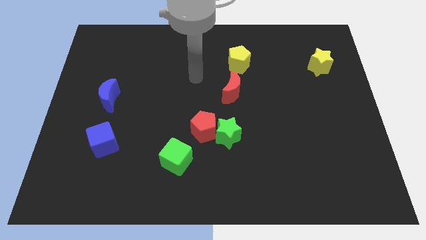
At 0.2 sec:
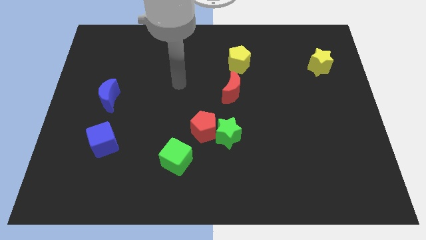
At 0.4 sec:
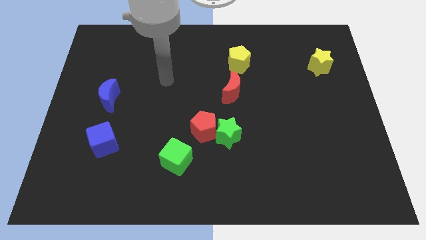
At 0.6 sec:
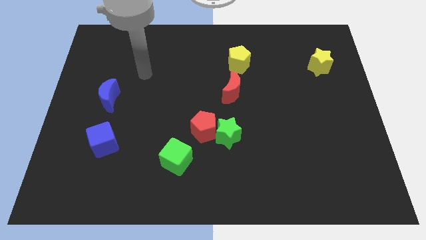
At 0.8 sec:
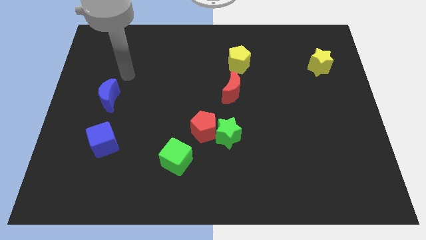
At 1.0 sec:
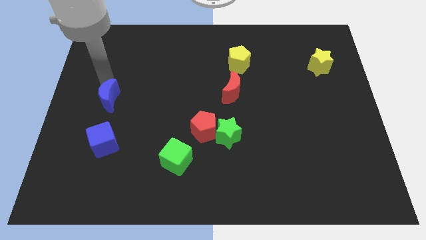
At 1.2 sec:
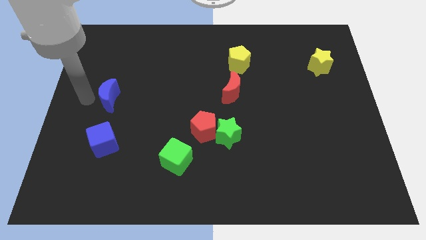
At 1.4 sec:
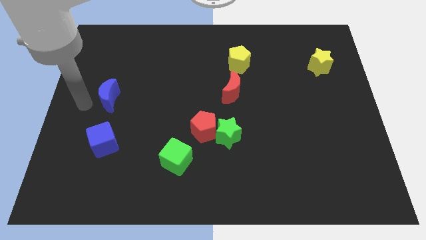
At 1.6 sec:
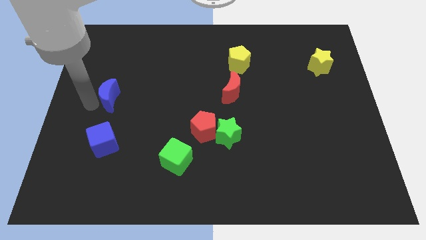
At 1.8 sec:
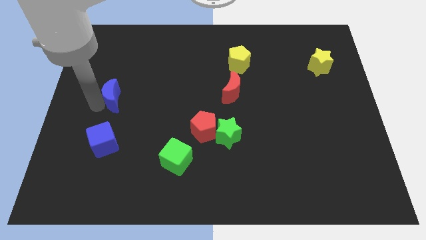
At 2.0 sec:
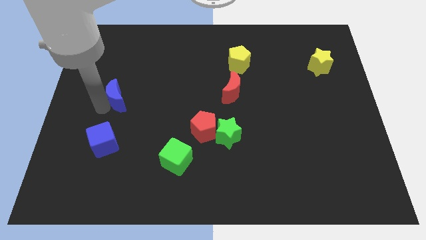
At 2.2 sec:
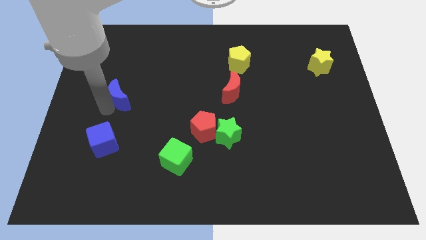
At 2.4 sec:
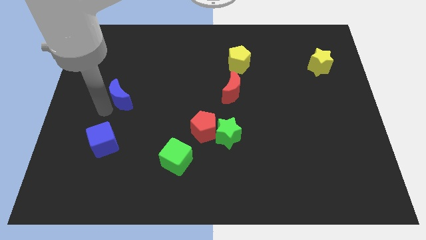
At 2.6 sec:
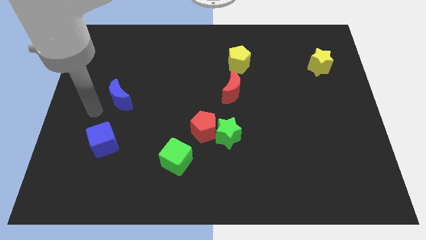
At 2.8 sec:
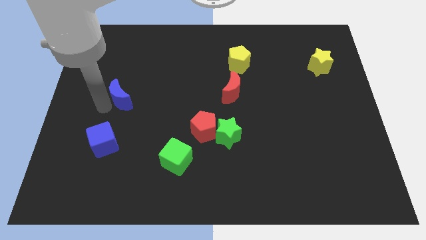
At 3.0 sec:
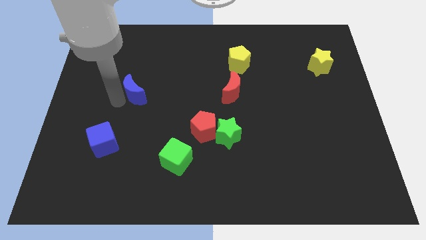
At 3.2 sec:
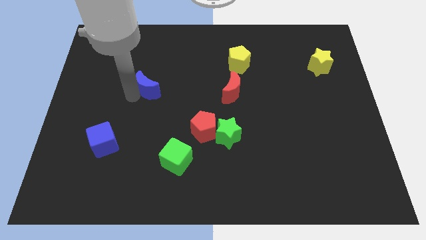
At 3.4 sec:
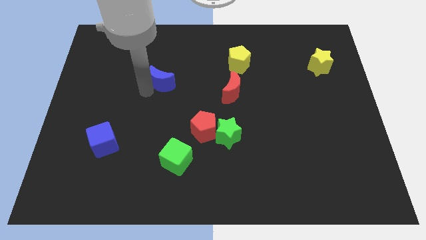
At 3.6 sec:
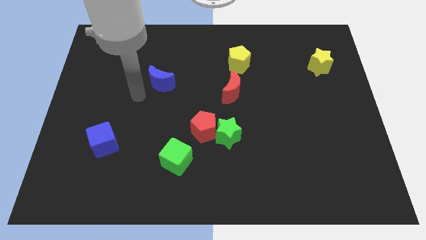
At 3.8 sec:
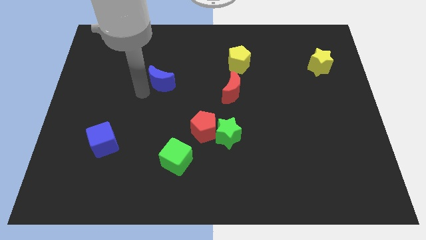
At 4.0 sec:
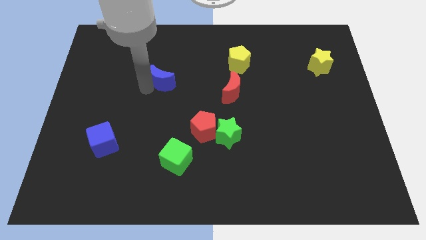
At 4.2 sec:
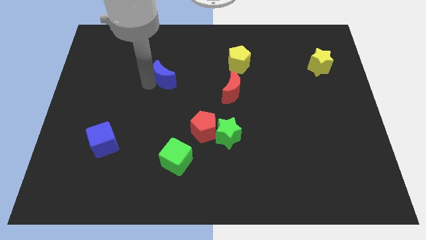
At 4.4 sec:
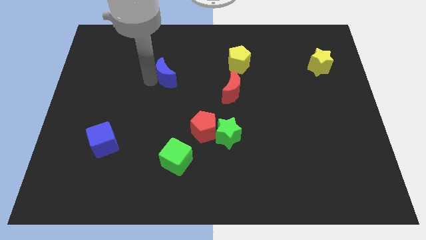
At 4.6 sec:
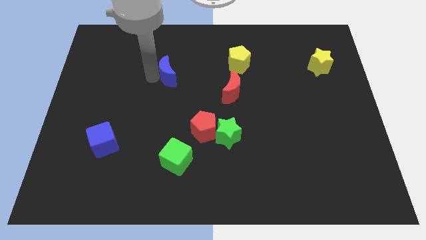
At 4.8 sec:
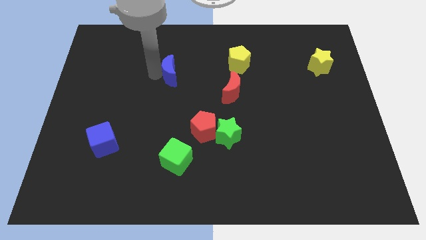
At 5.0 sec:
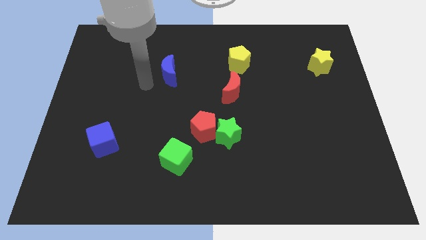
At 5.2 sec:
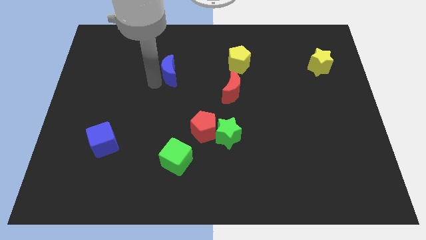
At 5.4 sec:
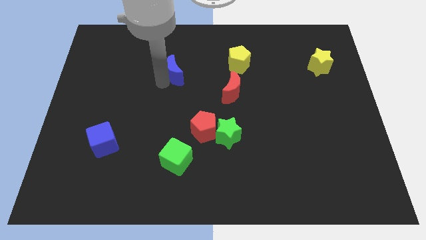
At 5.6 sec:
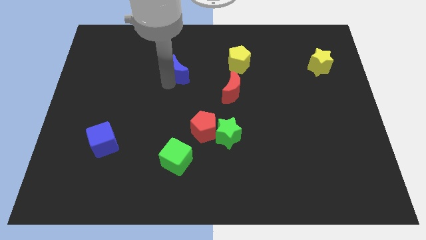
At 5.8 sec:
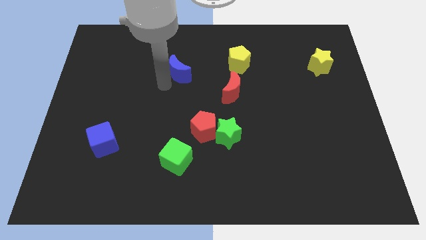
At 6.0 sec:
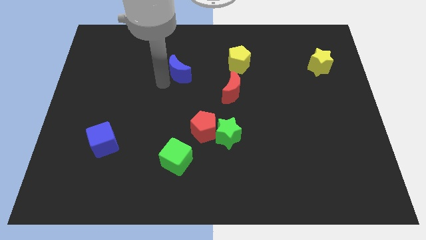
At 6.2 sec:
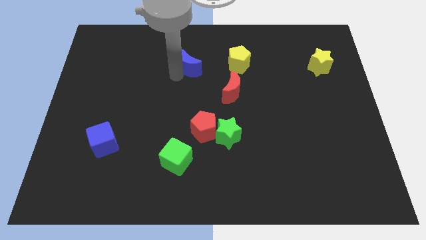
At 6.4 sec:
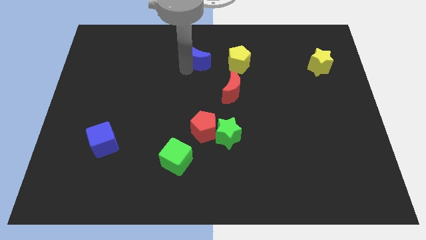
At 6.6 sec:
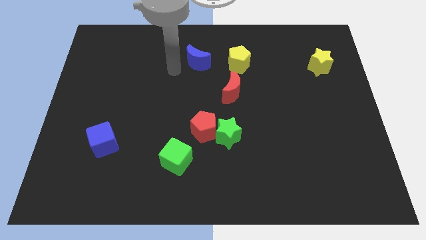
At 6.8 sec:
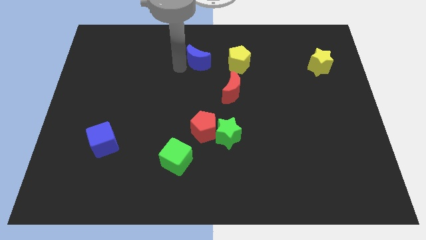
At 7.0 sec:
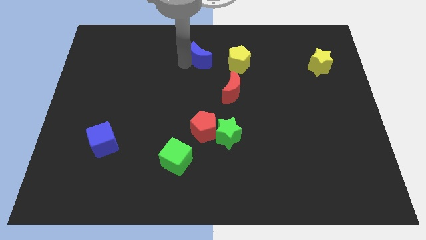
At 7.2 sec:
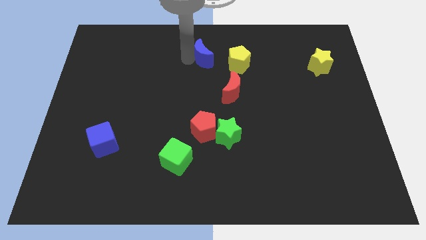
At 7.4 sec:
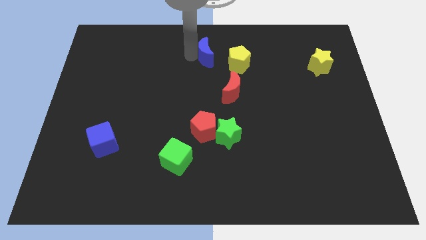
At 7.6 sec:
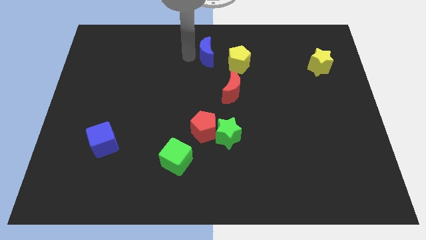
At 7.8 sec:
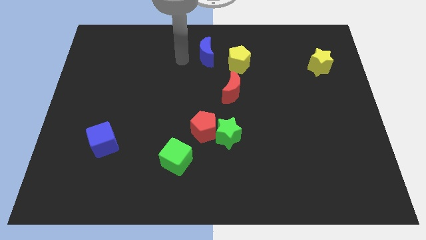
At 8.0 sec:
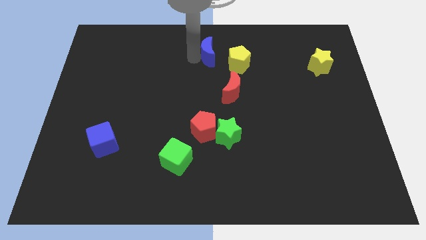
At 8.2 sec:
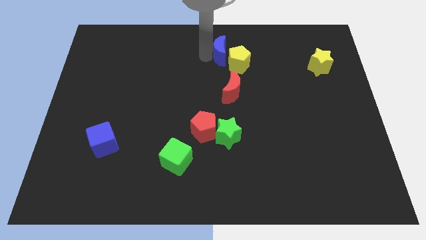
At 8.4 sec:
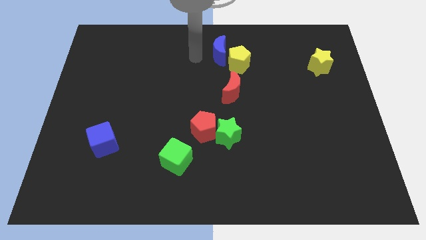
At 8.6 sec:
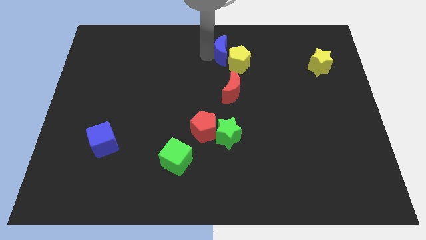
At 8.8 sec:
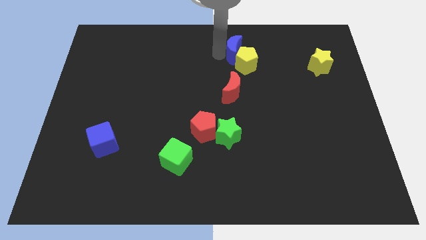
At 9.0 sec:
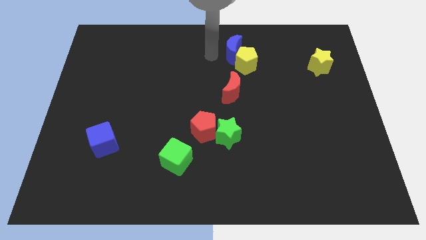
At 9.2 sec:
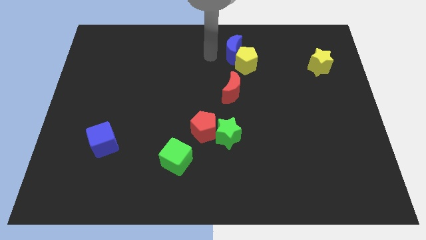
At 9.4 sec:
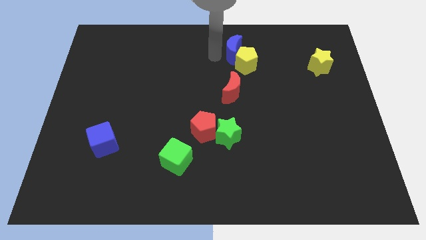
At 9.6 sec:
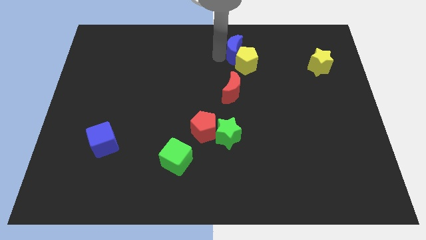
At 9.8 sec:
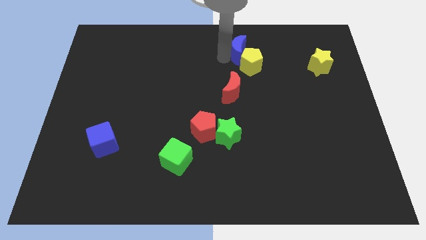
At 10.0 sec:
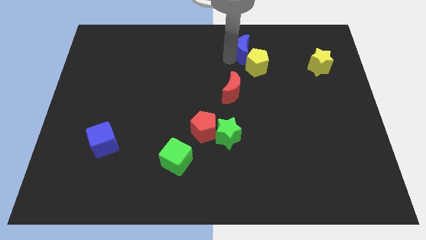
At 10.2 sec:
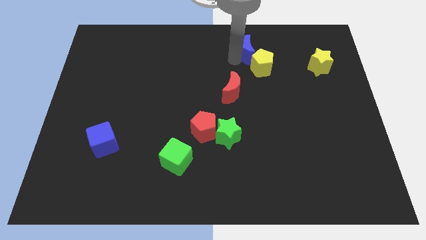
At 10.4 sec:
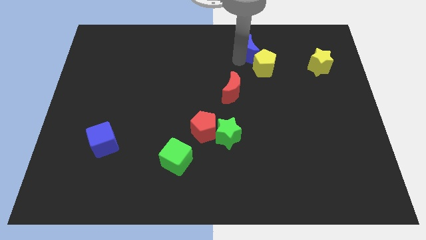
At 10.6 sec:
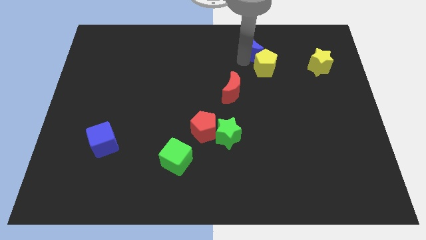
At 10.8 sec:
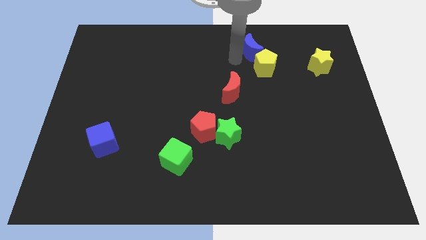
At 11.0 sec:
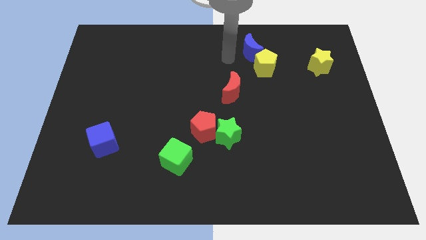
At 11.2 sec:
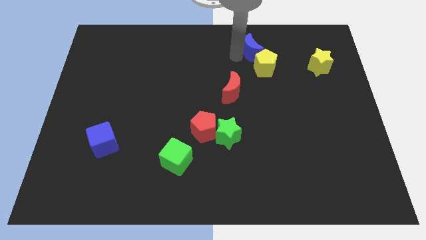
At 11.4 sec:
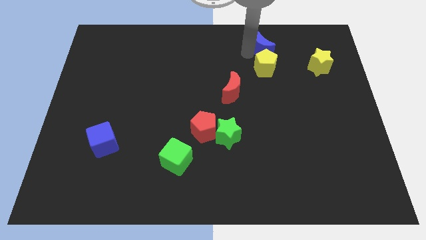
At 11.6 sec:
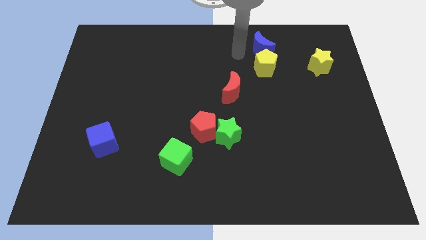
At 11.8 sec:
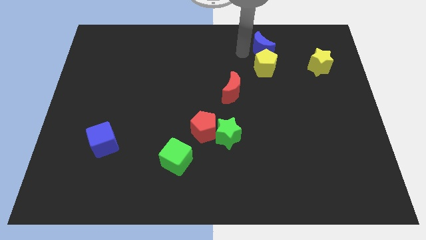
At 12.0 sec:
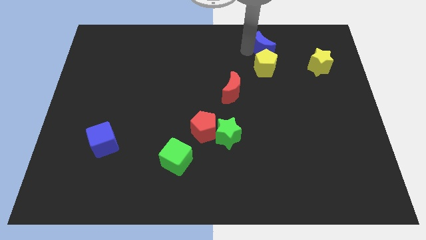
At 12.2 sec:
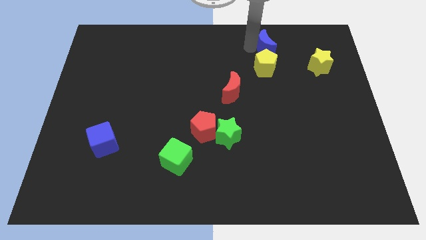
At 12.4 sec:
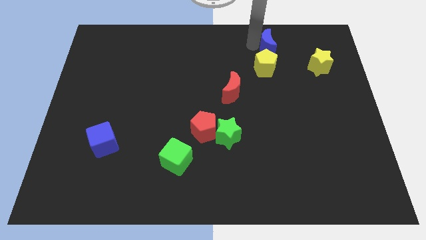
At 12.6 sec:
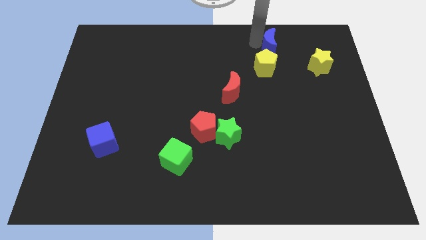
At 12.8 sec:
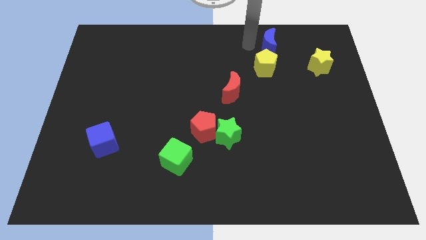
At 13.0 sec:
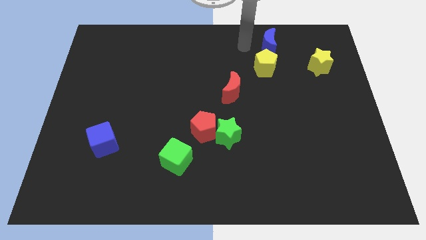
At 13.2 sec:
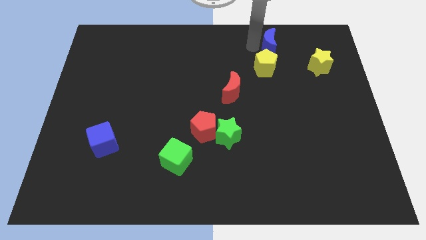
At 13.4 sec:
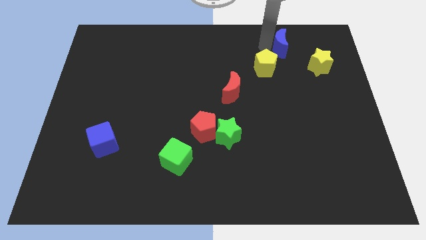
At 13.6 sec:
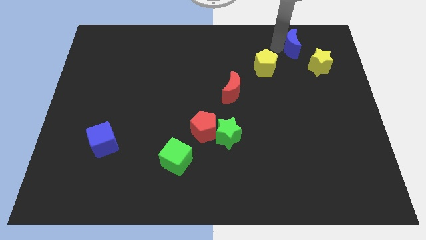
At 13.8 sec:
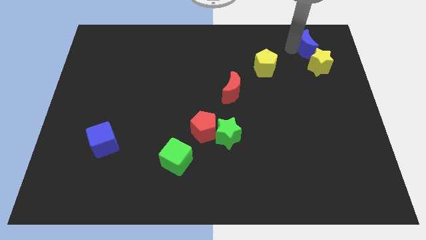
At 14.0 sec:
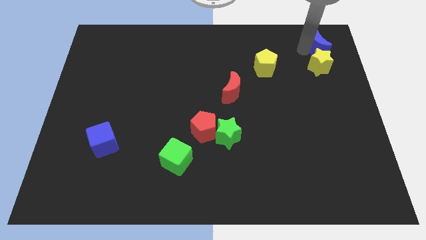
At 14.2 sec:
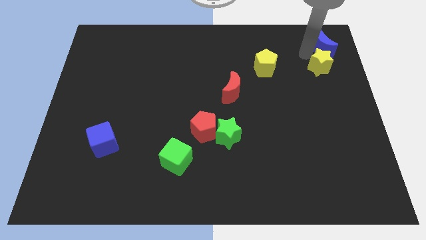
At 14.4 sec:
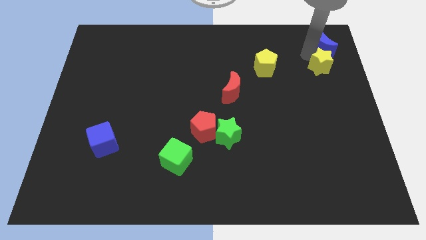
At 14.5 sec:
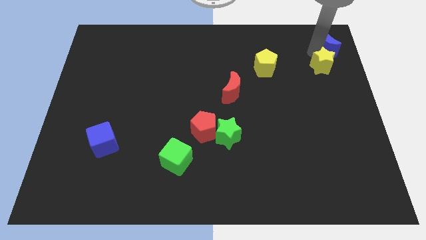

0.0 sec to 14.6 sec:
move the blue moon to the top right corner
